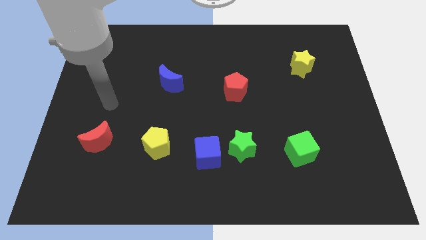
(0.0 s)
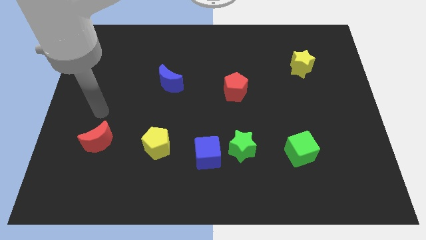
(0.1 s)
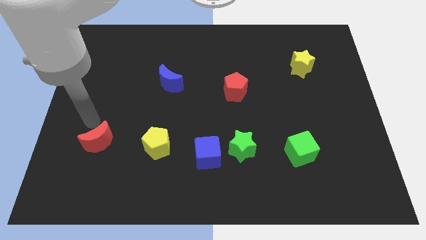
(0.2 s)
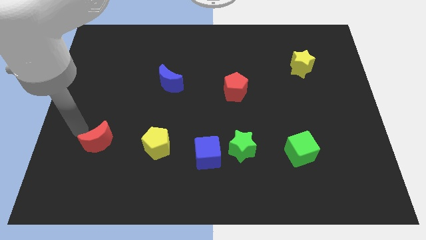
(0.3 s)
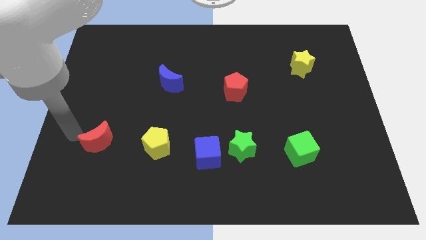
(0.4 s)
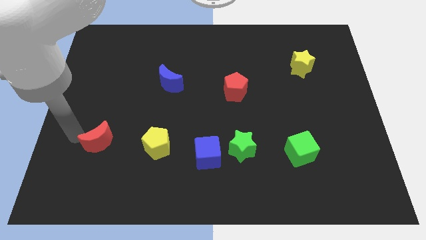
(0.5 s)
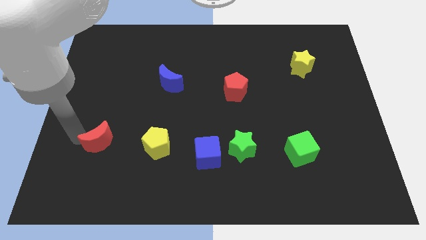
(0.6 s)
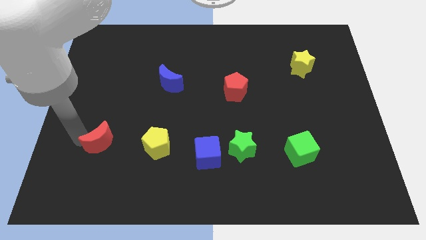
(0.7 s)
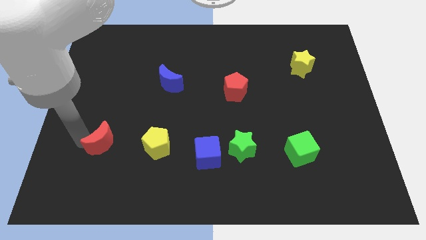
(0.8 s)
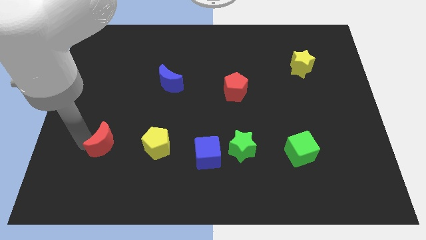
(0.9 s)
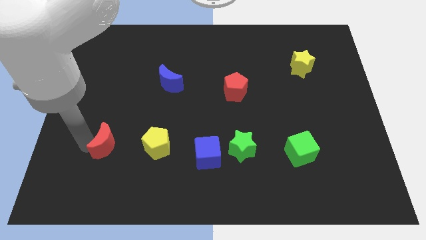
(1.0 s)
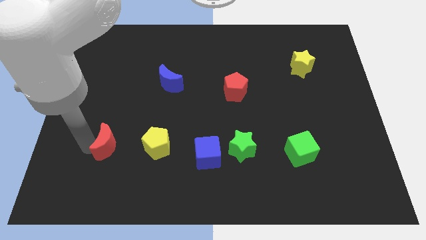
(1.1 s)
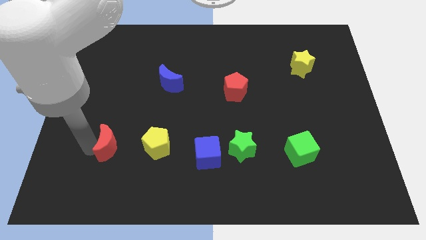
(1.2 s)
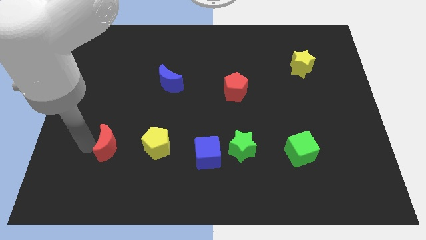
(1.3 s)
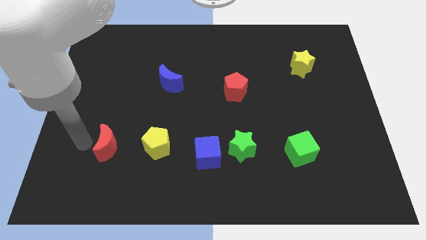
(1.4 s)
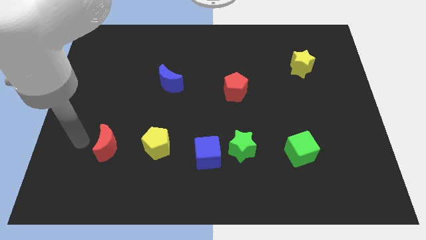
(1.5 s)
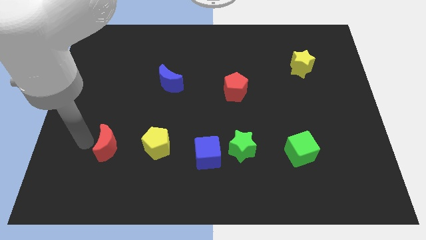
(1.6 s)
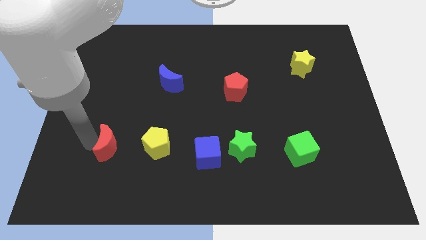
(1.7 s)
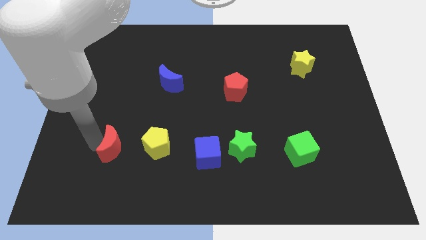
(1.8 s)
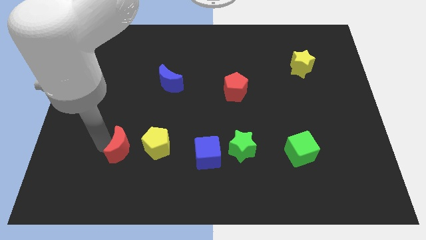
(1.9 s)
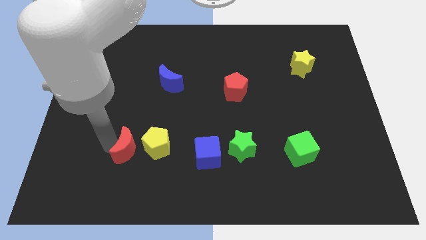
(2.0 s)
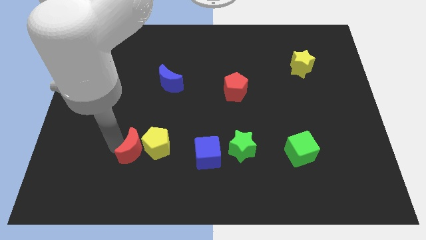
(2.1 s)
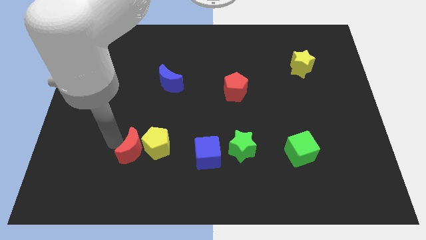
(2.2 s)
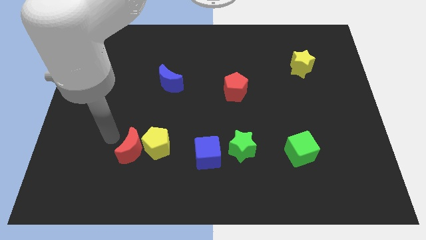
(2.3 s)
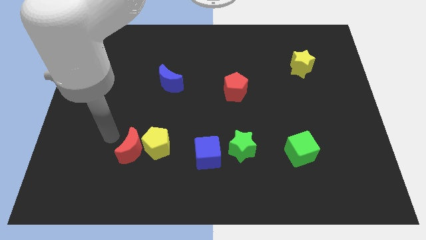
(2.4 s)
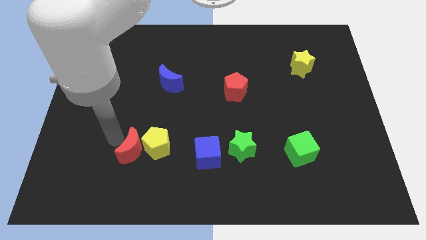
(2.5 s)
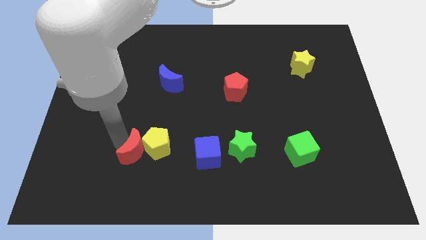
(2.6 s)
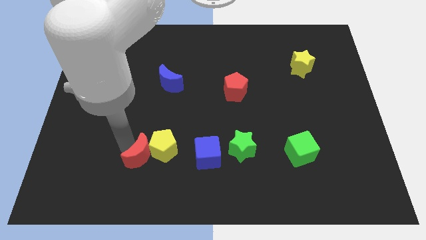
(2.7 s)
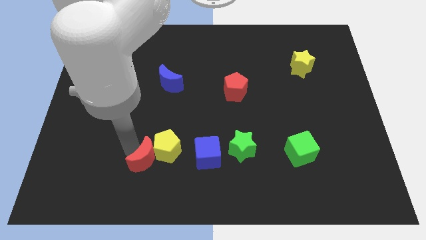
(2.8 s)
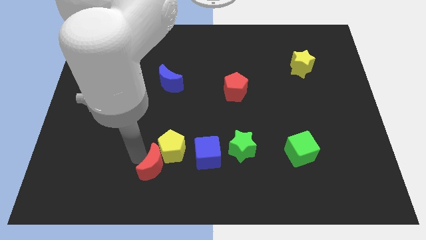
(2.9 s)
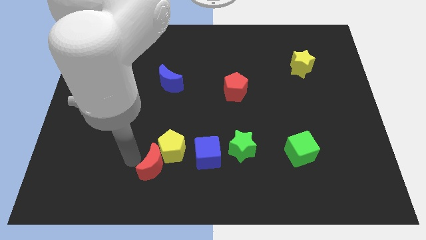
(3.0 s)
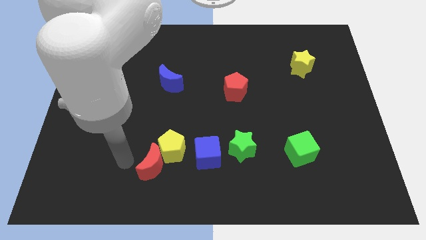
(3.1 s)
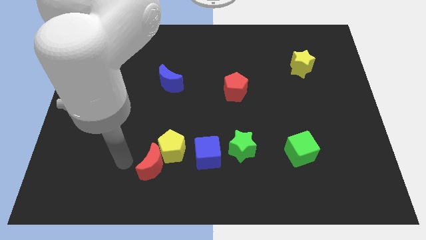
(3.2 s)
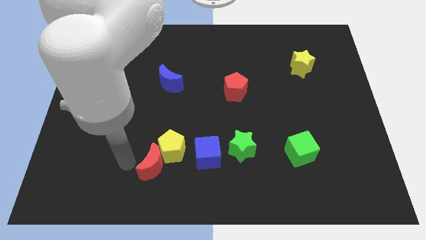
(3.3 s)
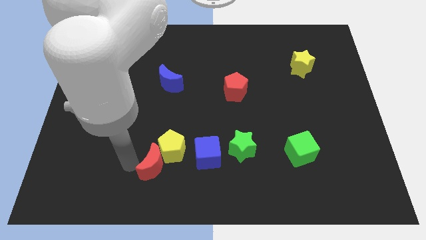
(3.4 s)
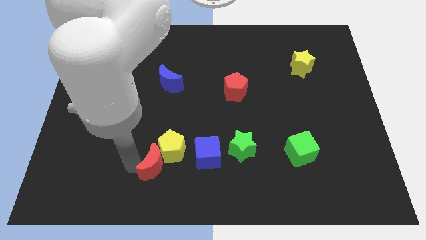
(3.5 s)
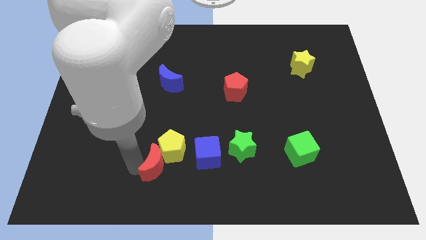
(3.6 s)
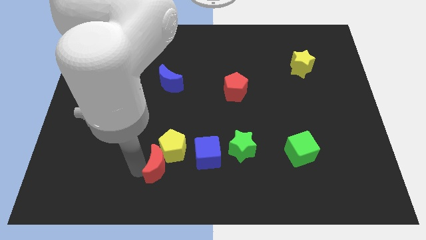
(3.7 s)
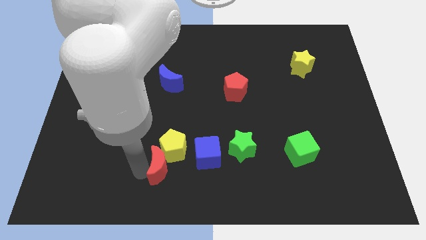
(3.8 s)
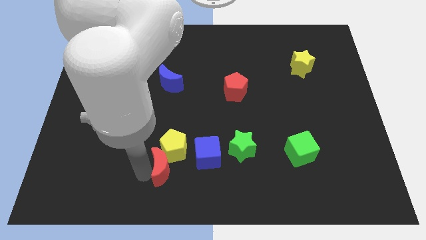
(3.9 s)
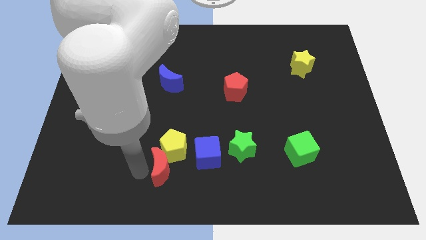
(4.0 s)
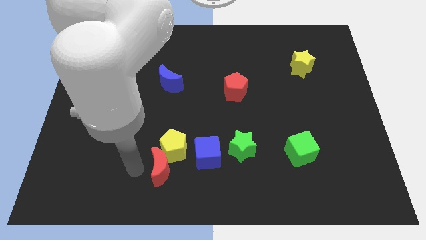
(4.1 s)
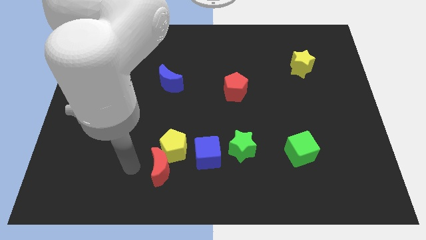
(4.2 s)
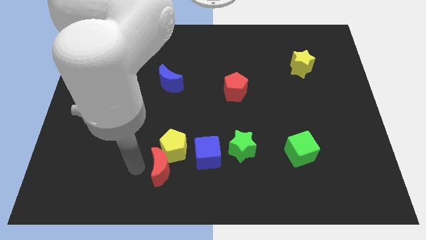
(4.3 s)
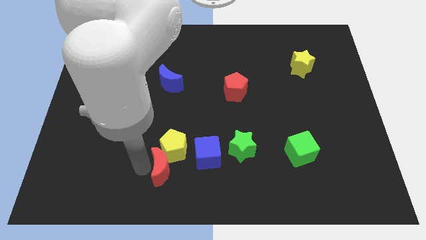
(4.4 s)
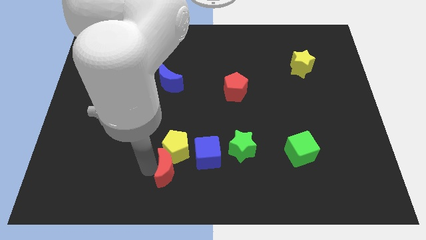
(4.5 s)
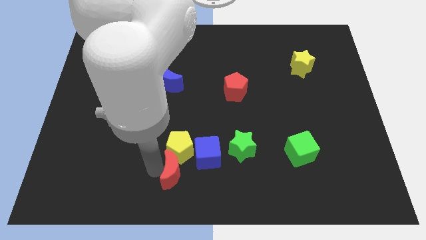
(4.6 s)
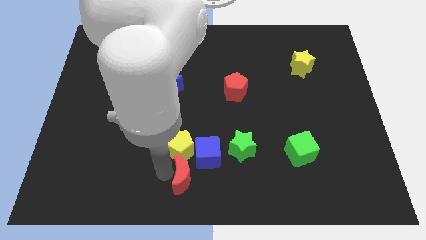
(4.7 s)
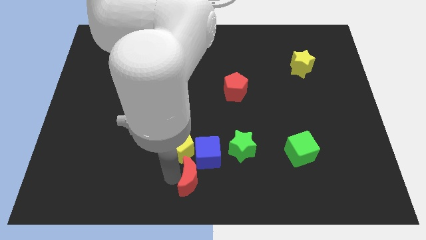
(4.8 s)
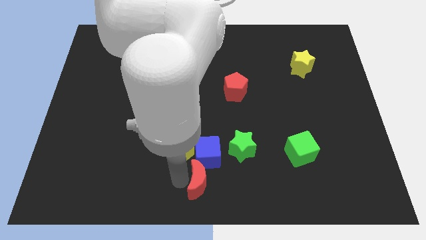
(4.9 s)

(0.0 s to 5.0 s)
move the red moon diagonally down and to the left of the green star

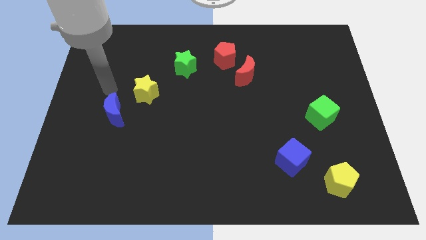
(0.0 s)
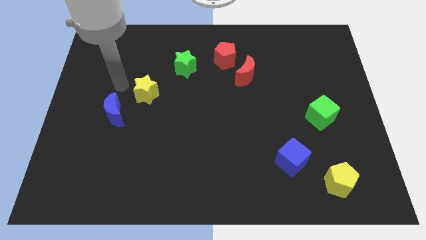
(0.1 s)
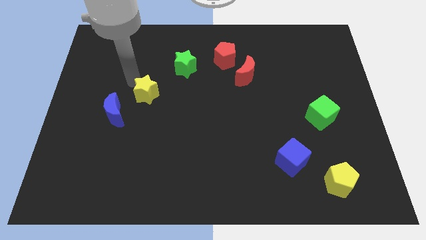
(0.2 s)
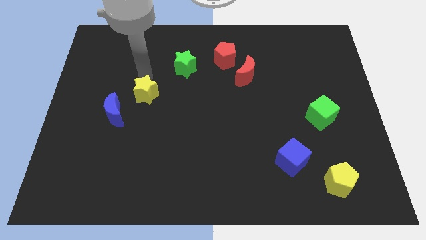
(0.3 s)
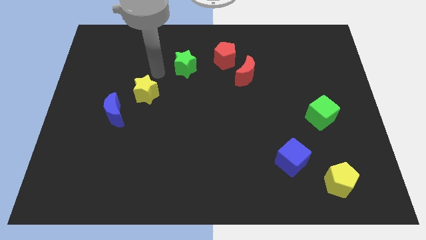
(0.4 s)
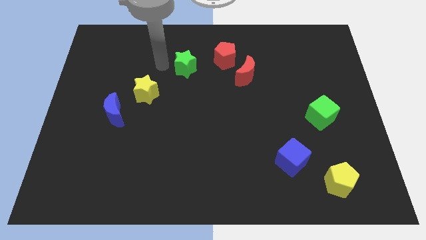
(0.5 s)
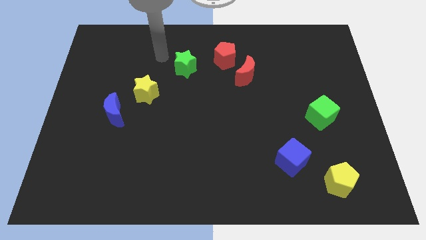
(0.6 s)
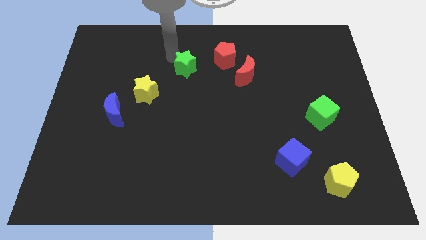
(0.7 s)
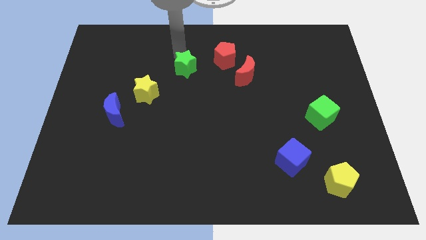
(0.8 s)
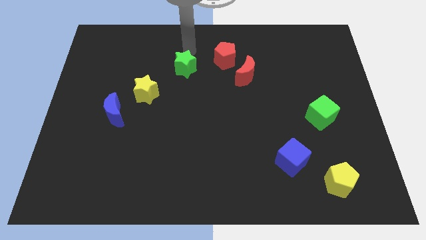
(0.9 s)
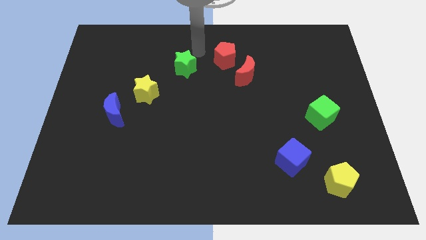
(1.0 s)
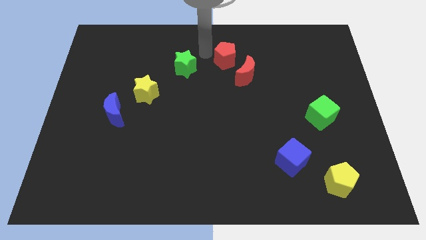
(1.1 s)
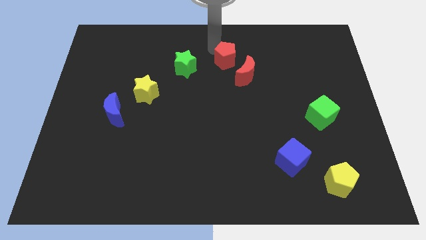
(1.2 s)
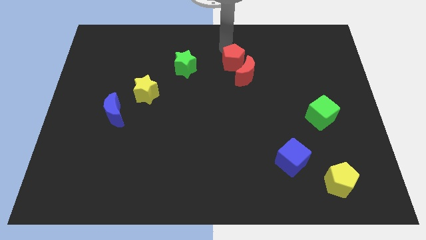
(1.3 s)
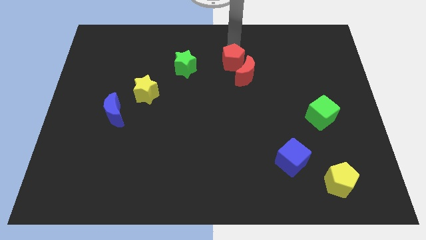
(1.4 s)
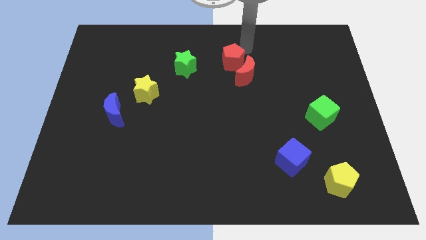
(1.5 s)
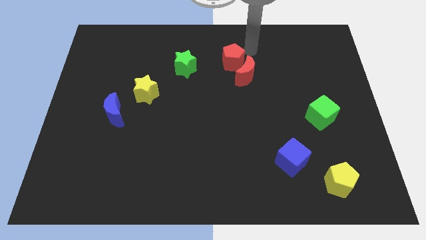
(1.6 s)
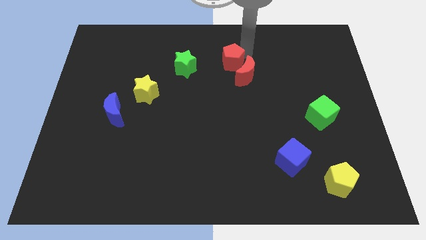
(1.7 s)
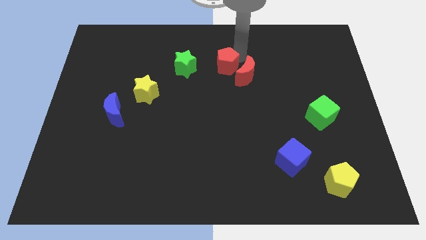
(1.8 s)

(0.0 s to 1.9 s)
put the red pentagon just left of the red moon
